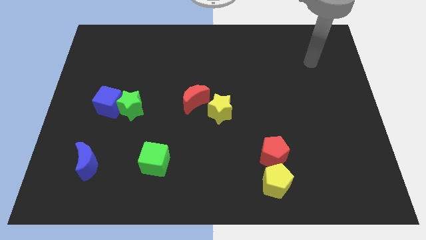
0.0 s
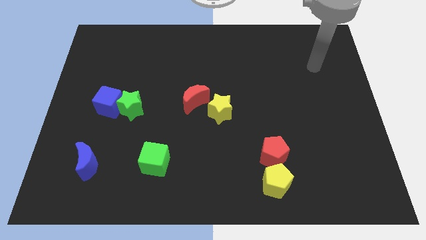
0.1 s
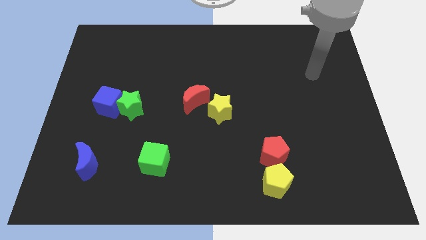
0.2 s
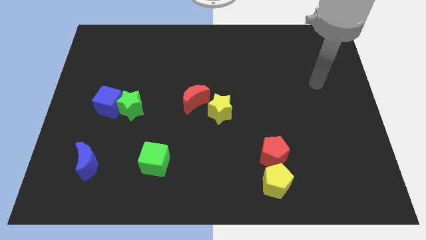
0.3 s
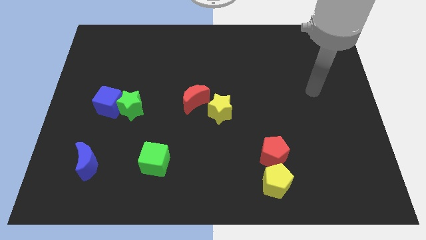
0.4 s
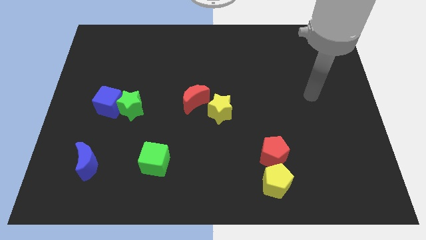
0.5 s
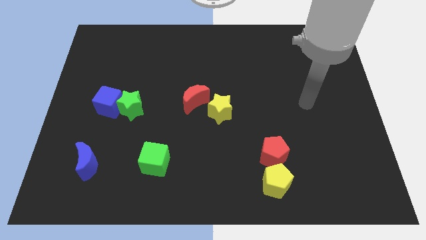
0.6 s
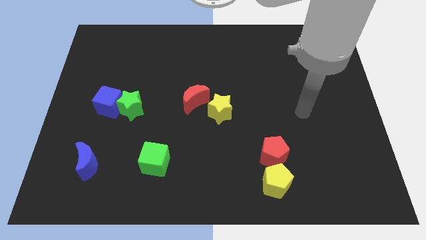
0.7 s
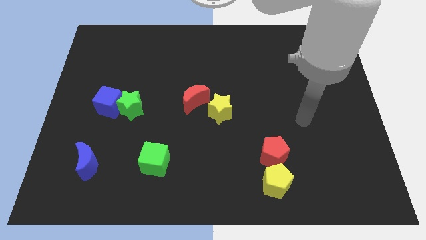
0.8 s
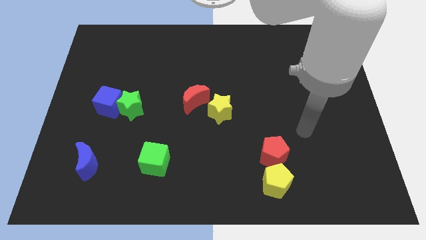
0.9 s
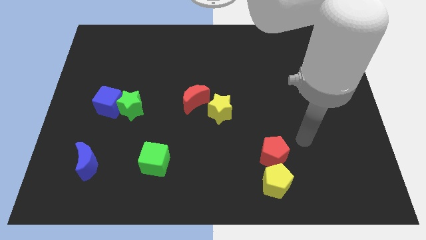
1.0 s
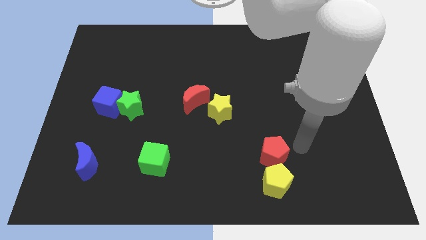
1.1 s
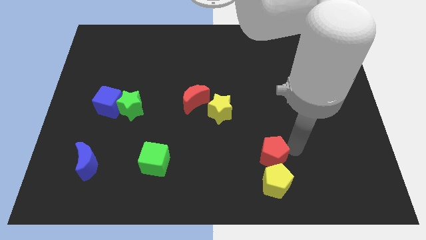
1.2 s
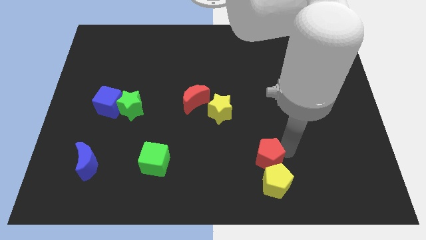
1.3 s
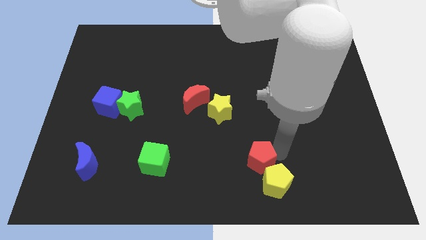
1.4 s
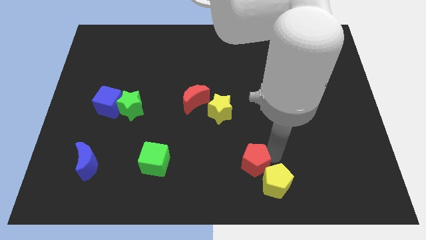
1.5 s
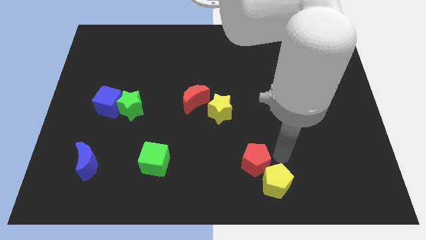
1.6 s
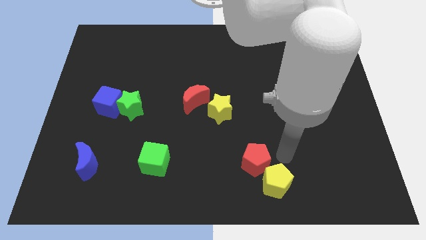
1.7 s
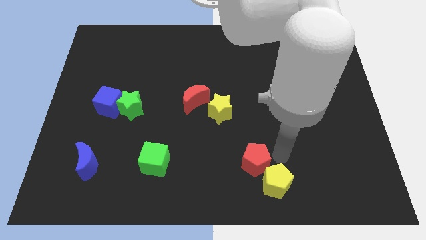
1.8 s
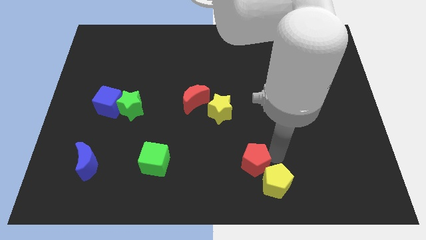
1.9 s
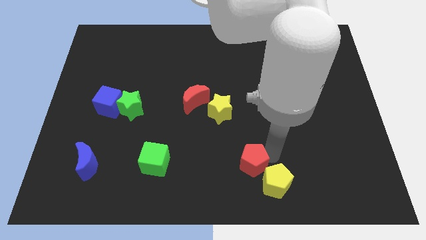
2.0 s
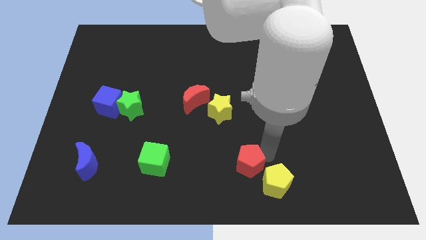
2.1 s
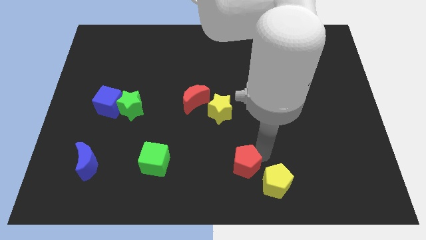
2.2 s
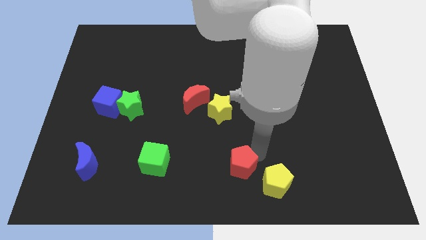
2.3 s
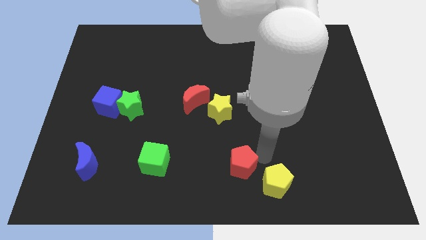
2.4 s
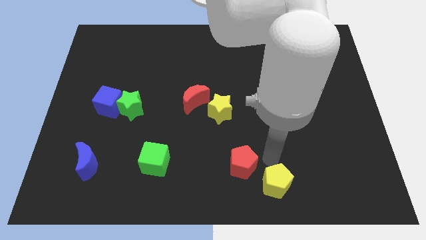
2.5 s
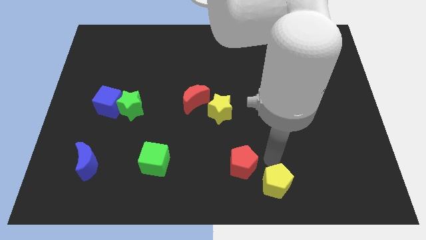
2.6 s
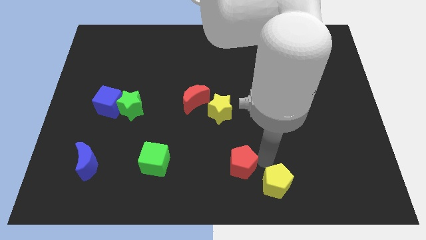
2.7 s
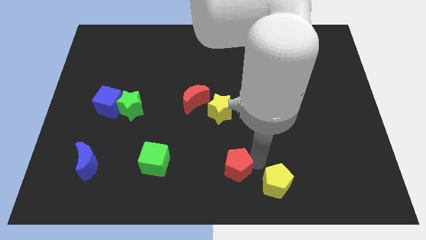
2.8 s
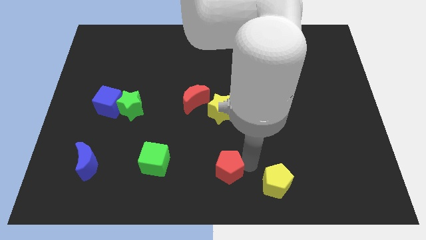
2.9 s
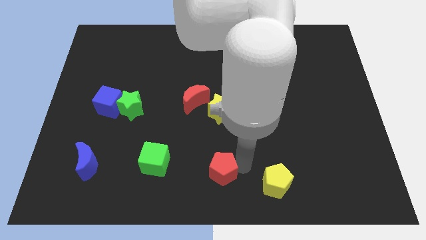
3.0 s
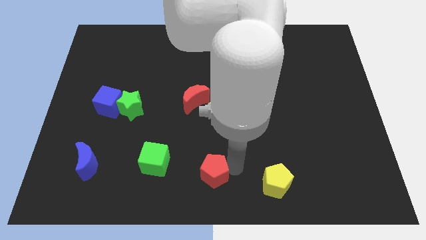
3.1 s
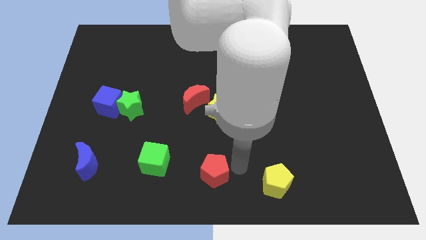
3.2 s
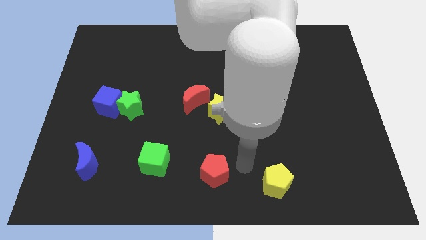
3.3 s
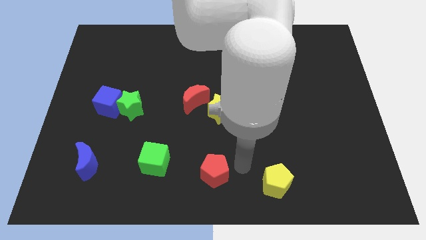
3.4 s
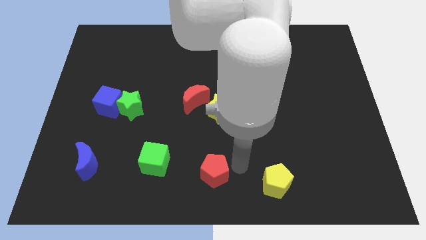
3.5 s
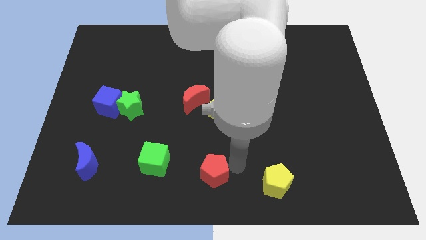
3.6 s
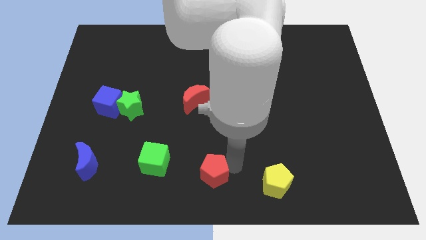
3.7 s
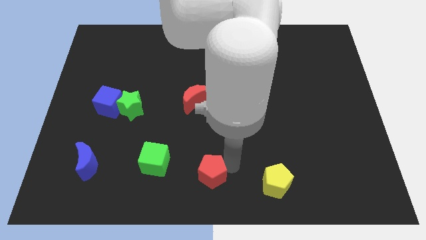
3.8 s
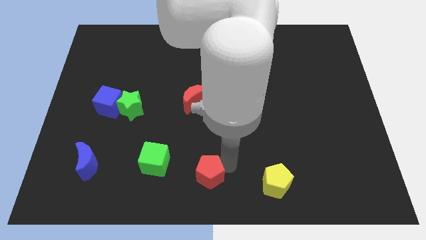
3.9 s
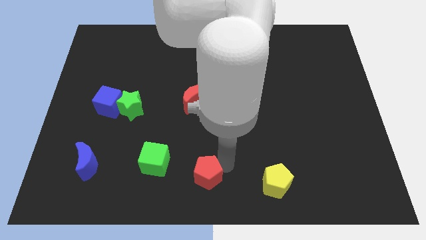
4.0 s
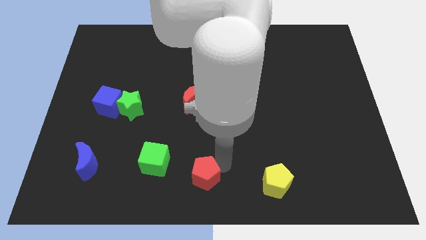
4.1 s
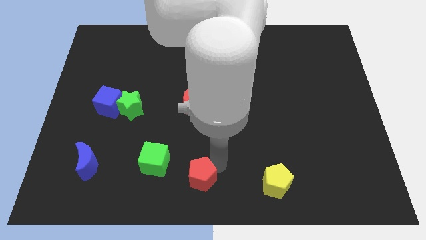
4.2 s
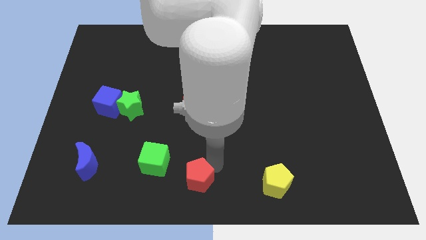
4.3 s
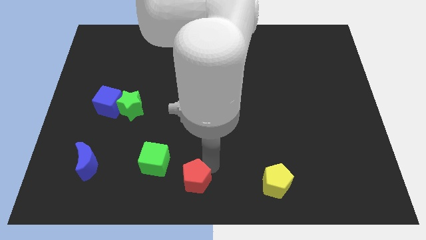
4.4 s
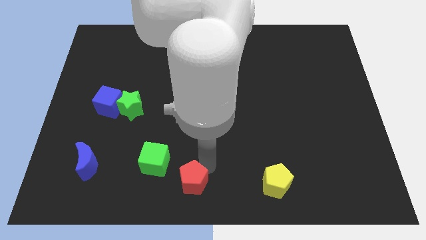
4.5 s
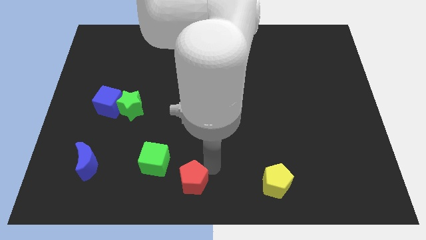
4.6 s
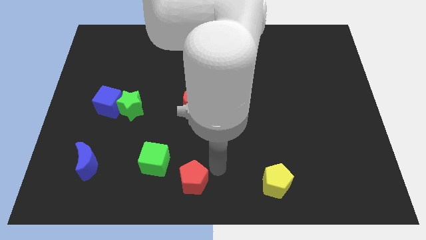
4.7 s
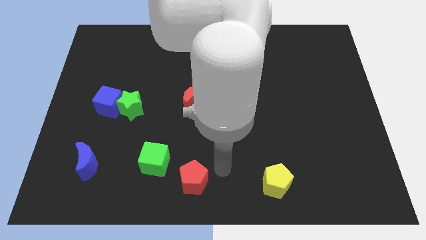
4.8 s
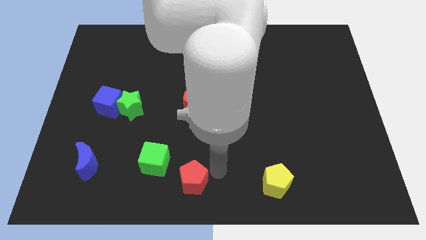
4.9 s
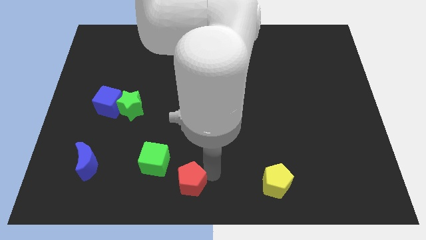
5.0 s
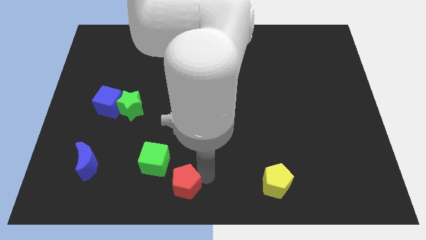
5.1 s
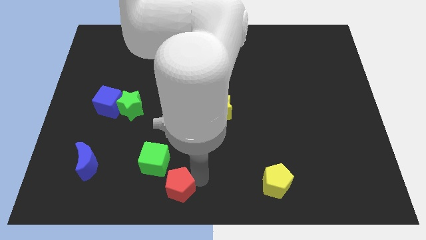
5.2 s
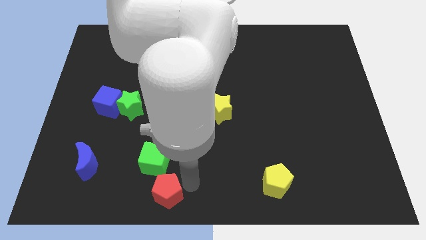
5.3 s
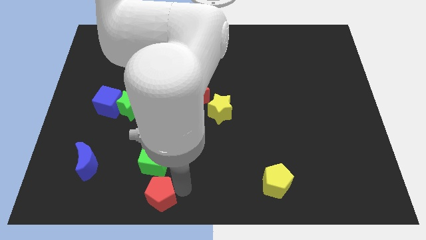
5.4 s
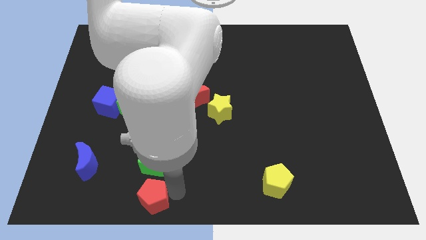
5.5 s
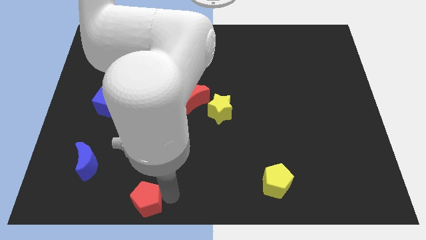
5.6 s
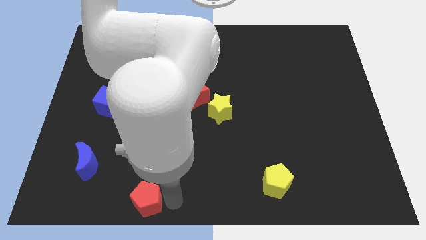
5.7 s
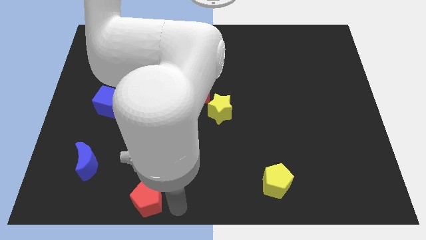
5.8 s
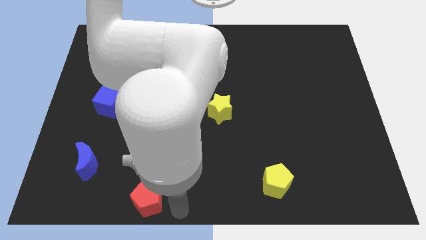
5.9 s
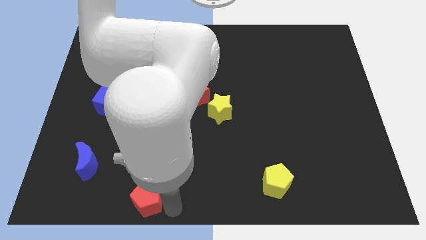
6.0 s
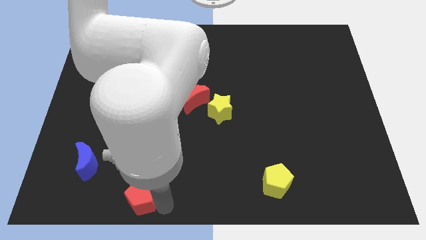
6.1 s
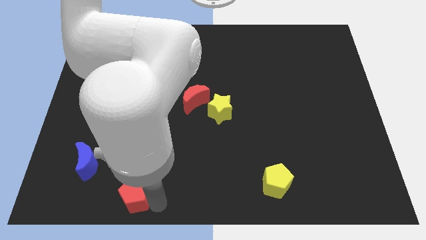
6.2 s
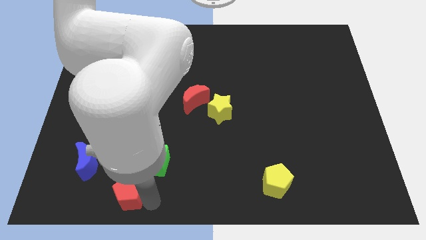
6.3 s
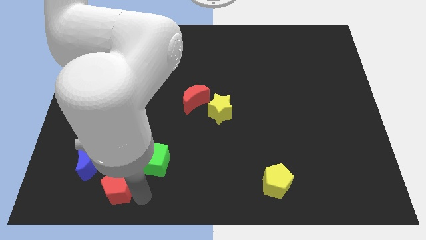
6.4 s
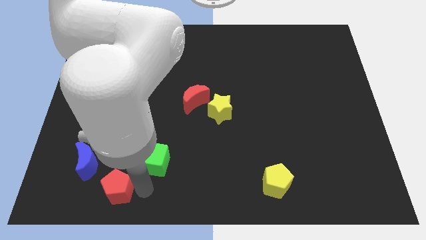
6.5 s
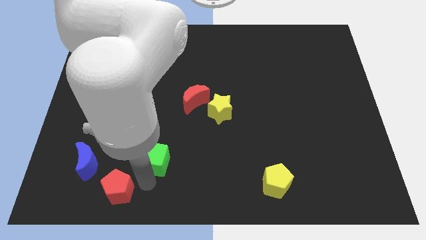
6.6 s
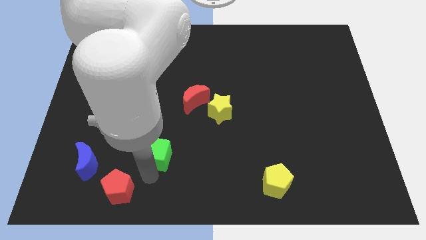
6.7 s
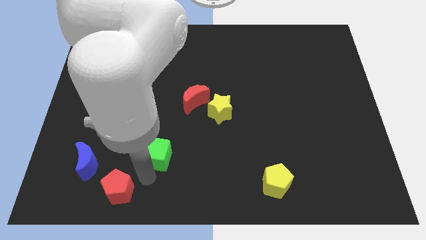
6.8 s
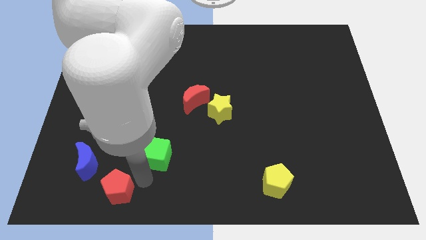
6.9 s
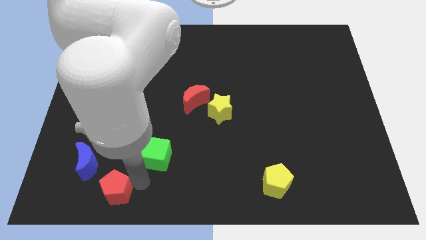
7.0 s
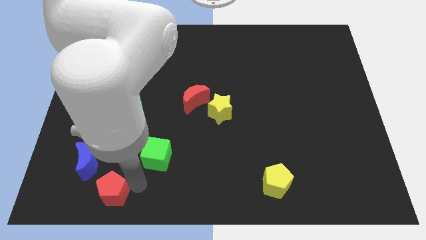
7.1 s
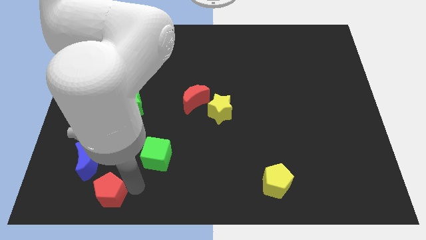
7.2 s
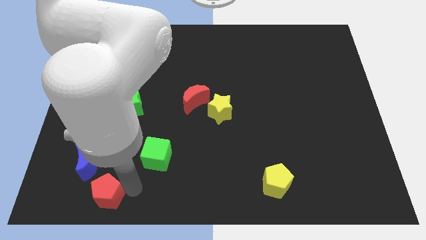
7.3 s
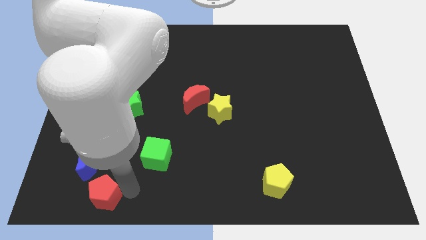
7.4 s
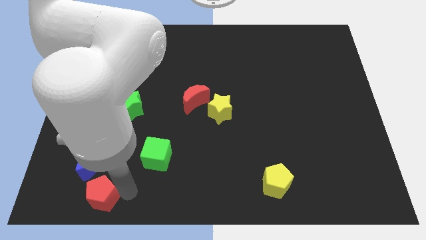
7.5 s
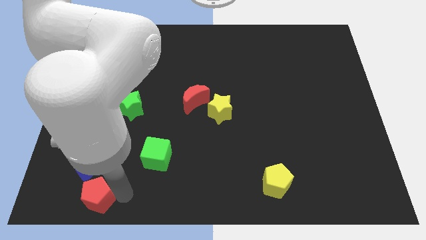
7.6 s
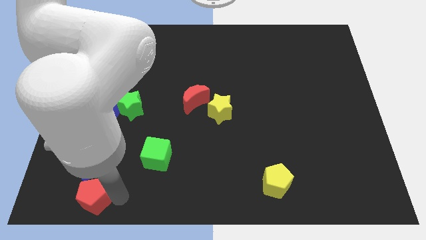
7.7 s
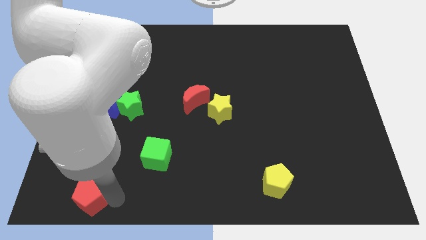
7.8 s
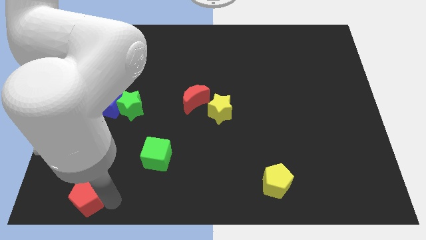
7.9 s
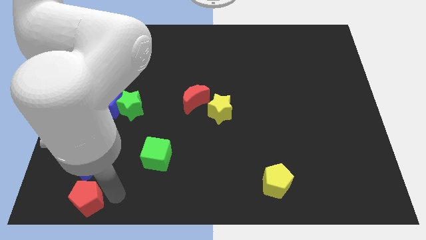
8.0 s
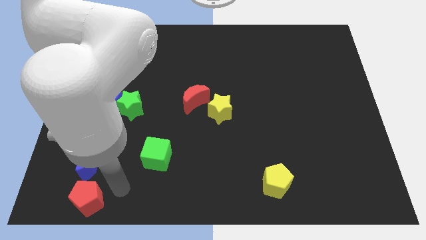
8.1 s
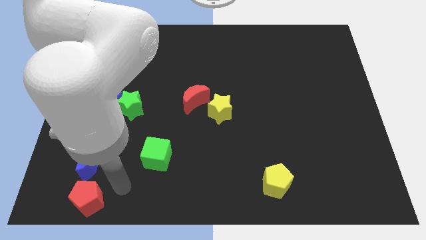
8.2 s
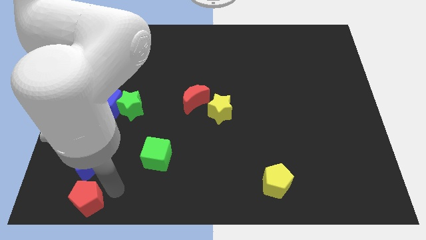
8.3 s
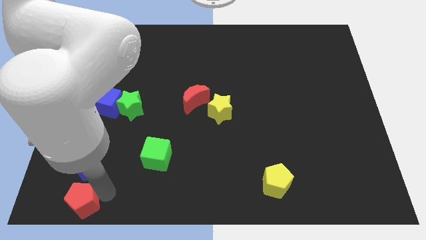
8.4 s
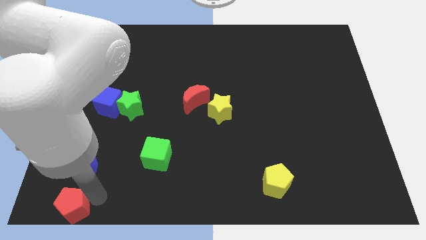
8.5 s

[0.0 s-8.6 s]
put the red pentagon to the bottom left corner
